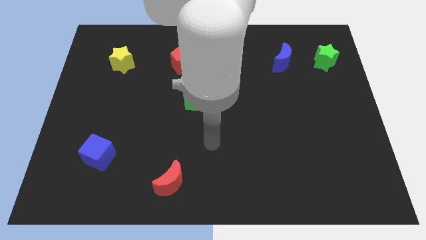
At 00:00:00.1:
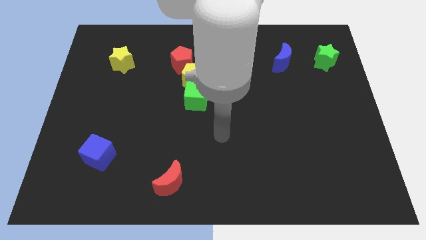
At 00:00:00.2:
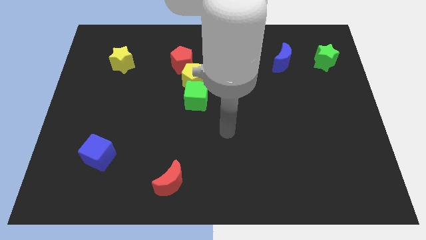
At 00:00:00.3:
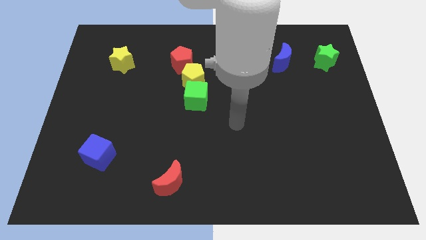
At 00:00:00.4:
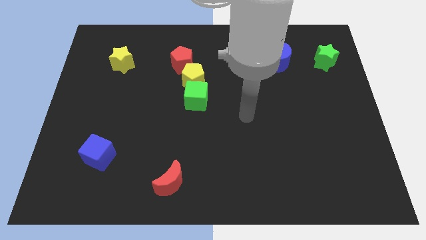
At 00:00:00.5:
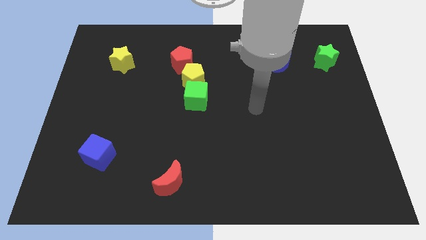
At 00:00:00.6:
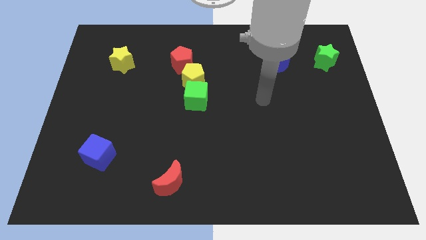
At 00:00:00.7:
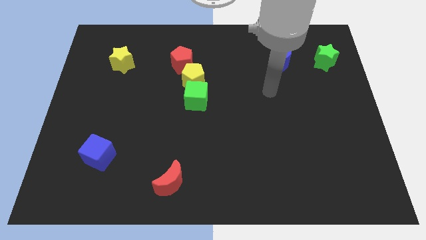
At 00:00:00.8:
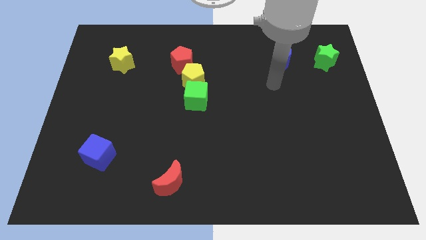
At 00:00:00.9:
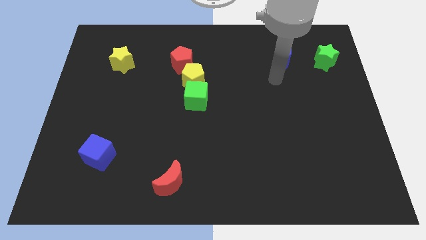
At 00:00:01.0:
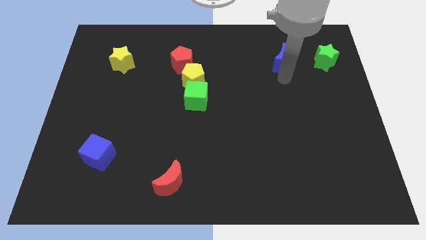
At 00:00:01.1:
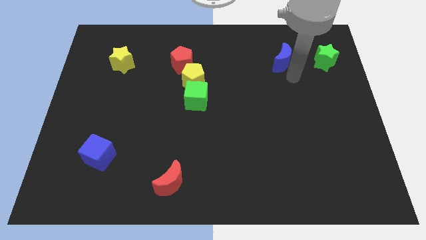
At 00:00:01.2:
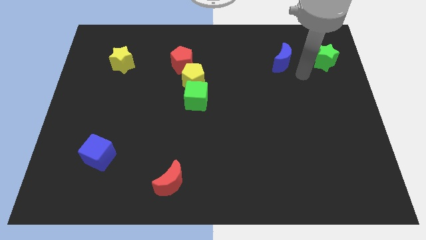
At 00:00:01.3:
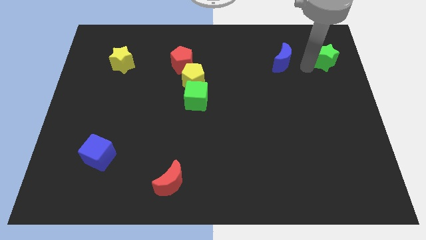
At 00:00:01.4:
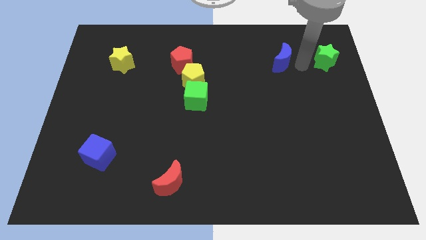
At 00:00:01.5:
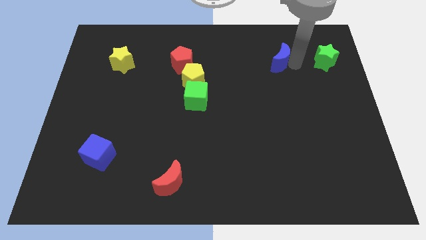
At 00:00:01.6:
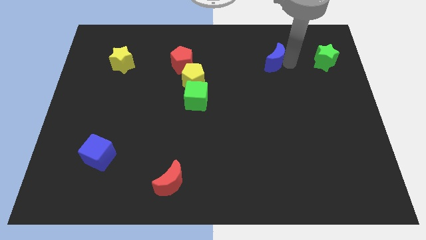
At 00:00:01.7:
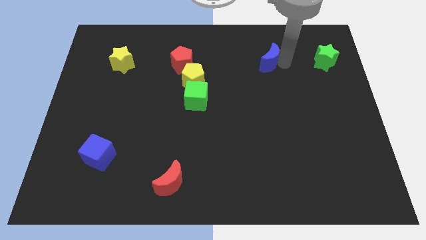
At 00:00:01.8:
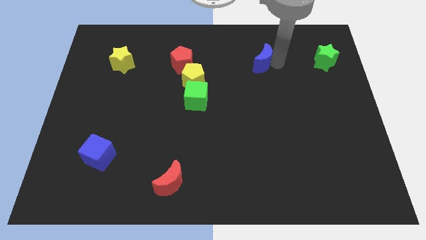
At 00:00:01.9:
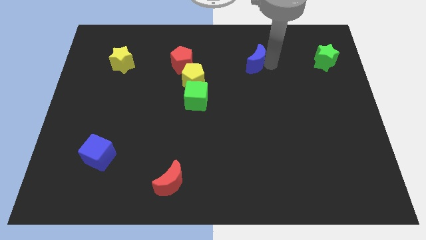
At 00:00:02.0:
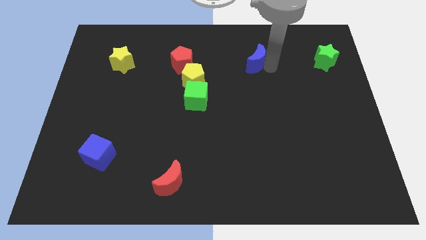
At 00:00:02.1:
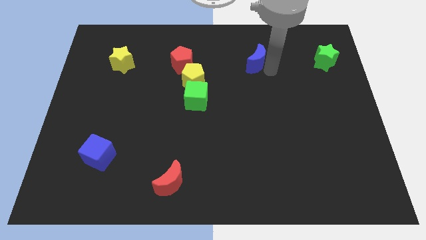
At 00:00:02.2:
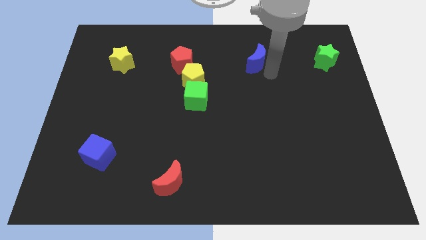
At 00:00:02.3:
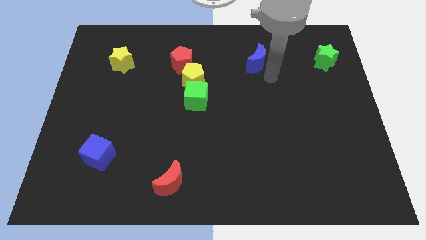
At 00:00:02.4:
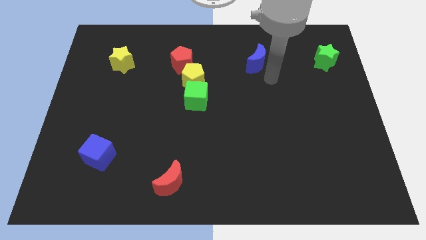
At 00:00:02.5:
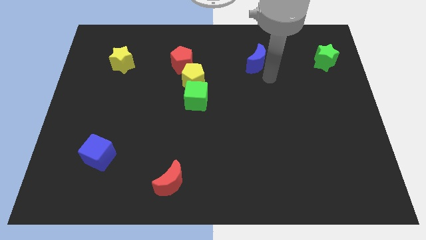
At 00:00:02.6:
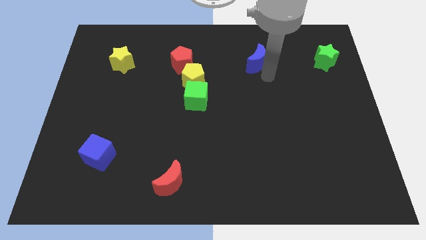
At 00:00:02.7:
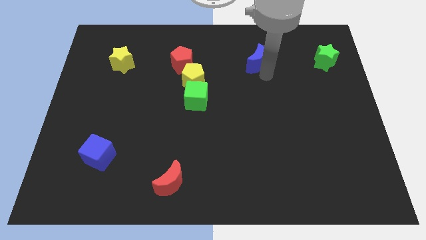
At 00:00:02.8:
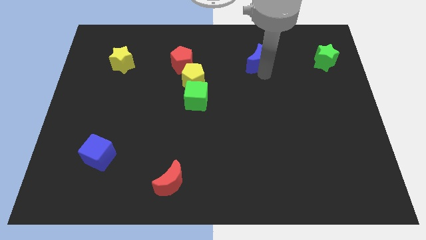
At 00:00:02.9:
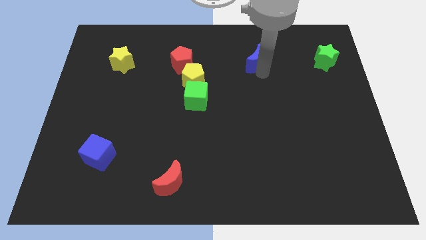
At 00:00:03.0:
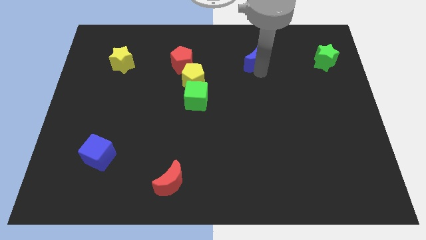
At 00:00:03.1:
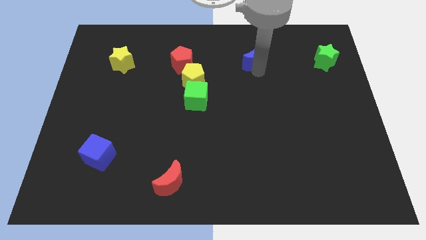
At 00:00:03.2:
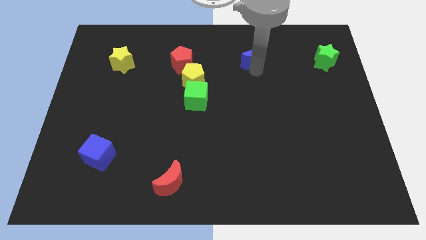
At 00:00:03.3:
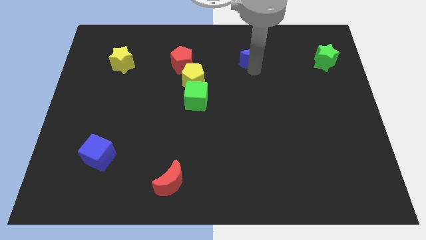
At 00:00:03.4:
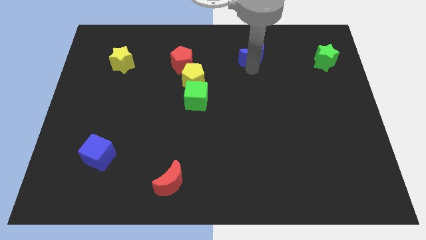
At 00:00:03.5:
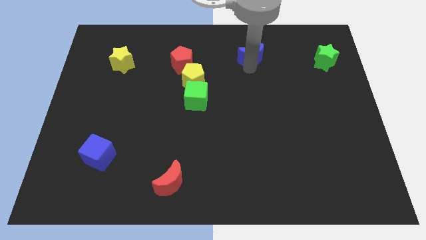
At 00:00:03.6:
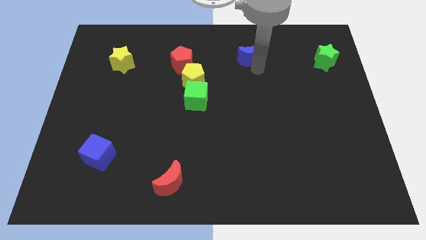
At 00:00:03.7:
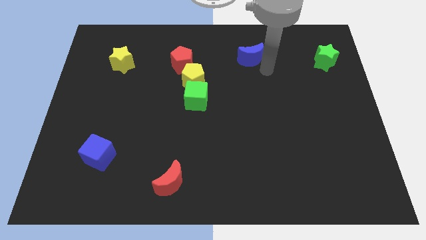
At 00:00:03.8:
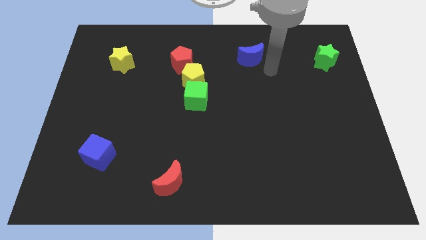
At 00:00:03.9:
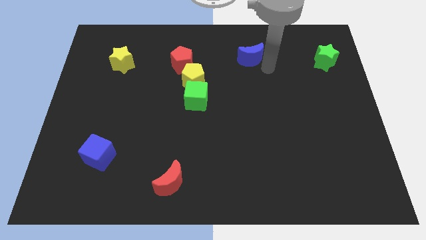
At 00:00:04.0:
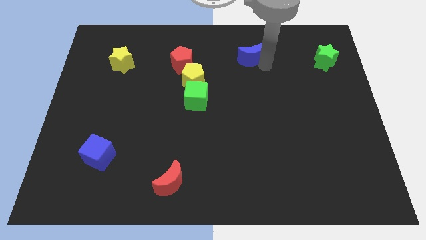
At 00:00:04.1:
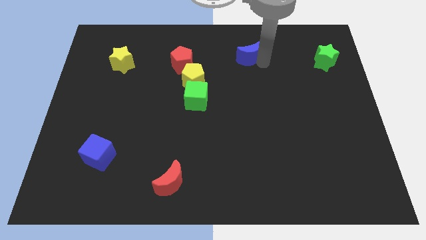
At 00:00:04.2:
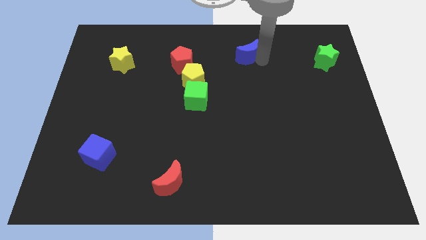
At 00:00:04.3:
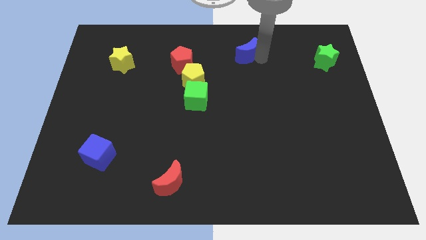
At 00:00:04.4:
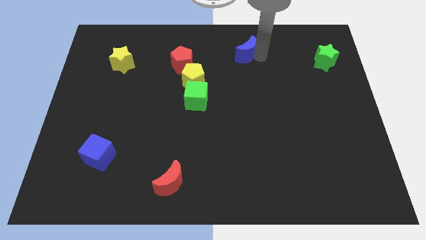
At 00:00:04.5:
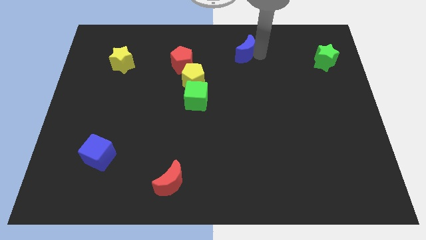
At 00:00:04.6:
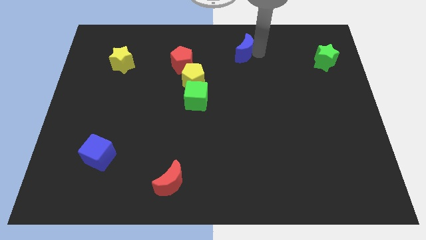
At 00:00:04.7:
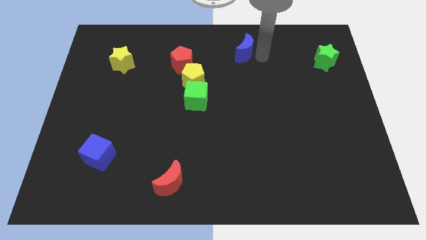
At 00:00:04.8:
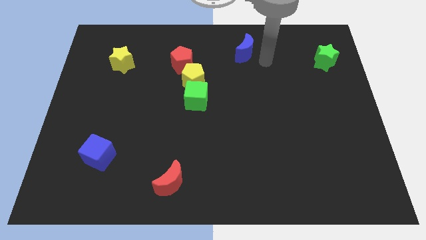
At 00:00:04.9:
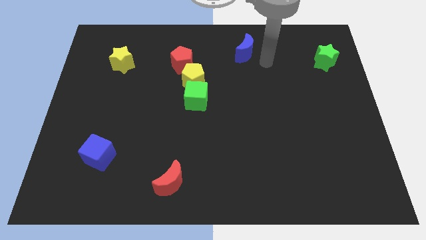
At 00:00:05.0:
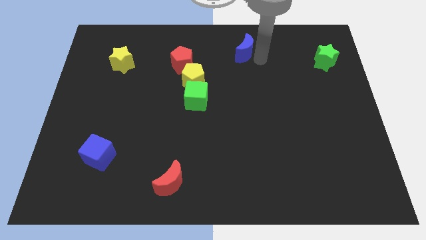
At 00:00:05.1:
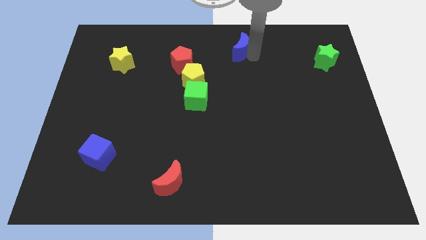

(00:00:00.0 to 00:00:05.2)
slide the blue moon to the top side
